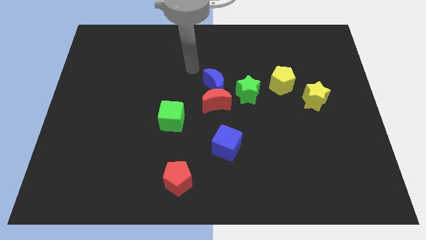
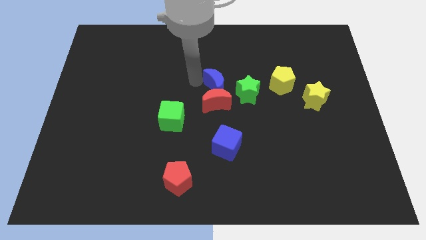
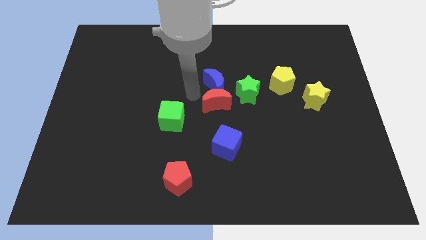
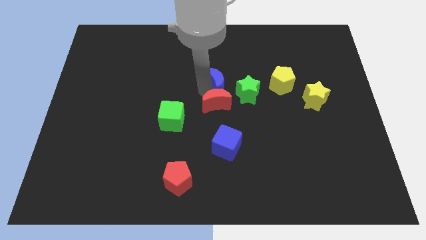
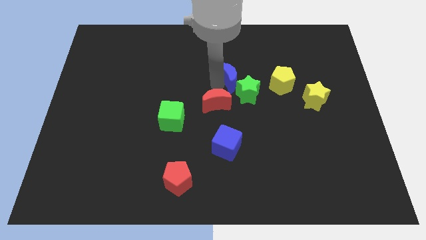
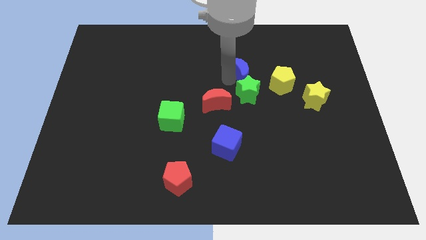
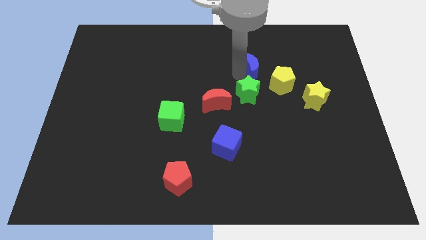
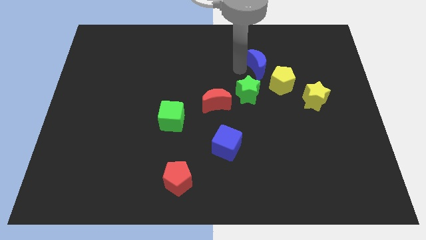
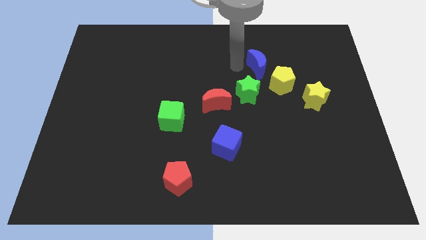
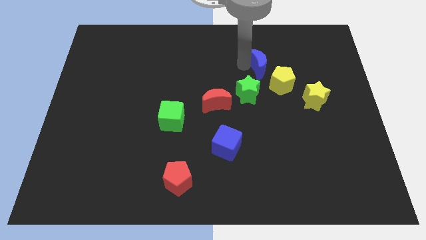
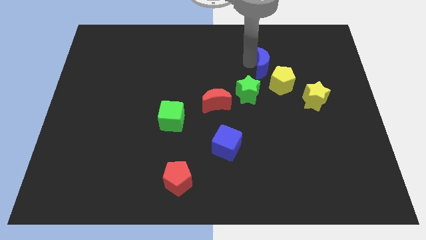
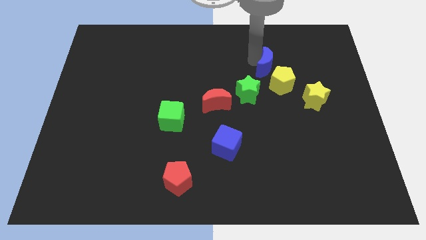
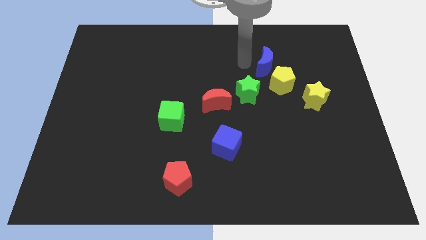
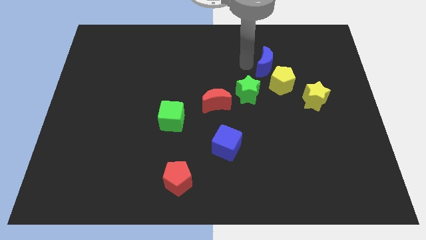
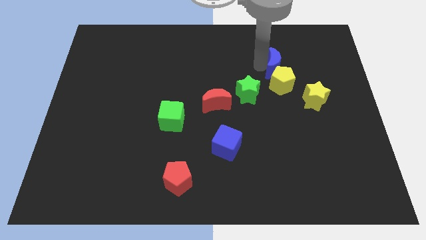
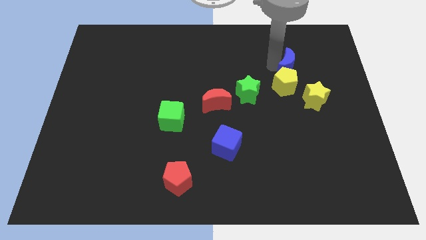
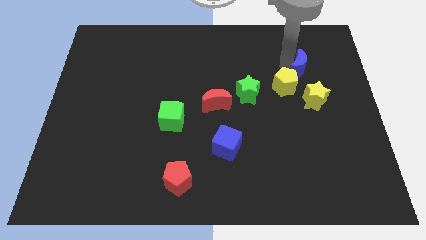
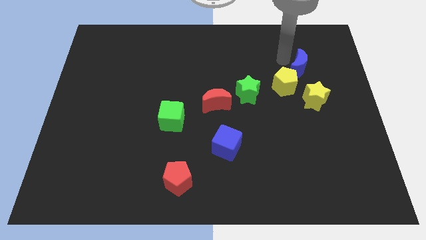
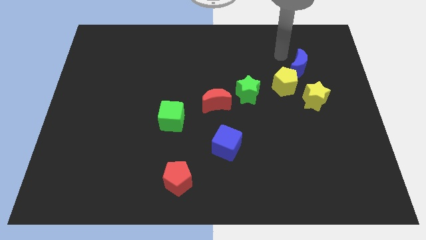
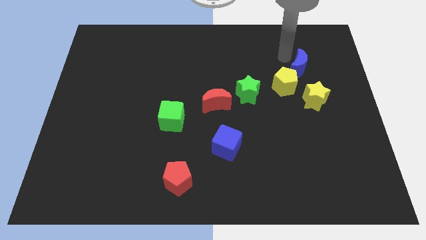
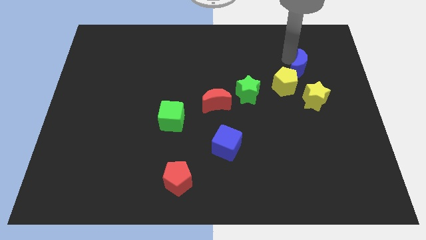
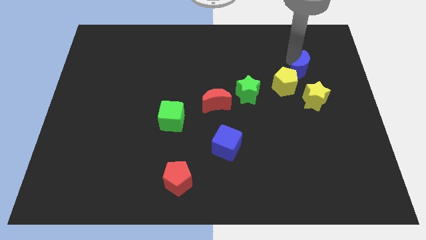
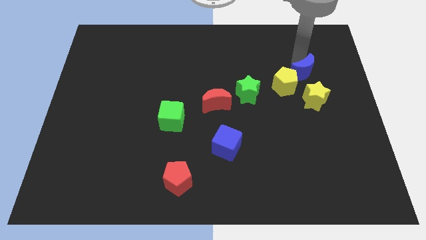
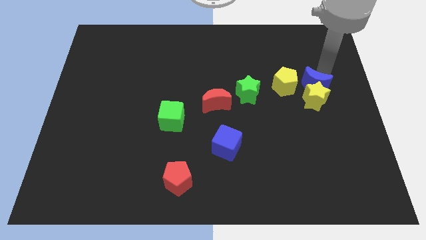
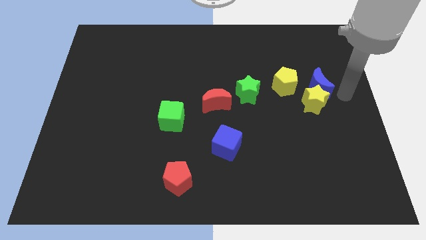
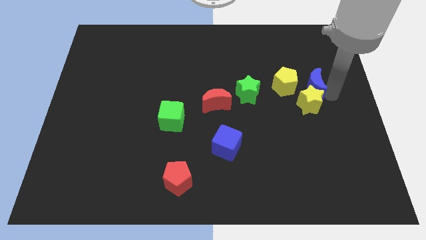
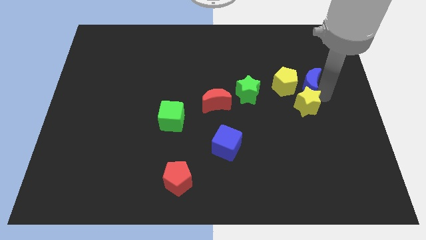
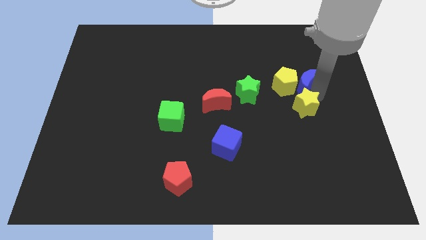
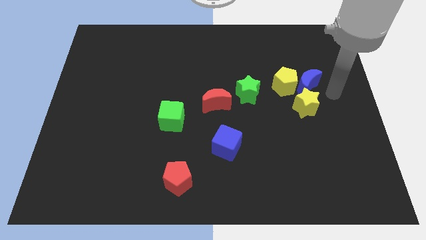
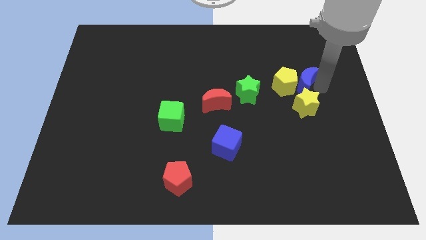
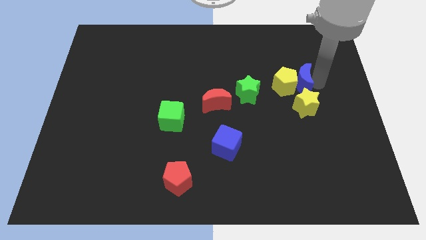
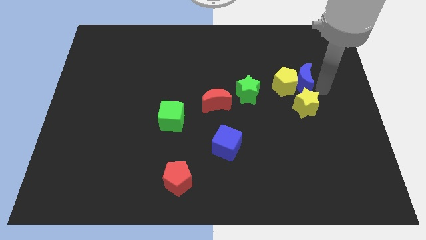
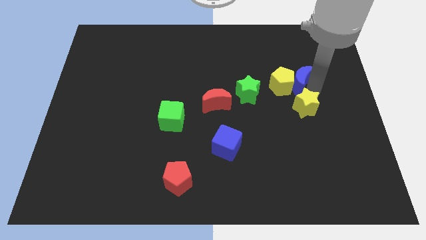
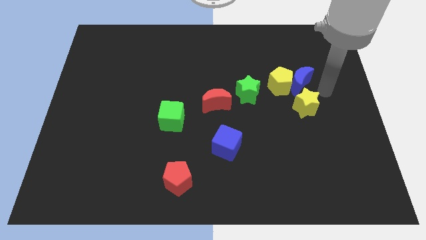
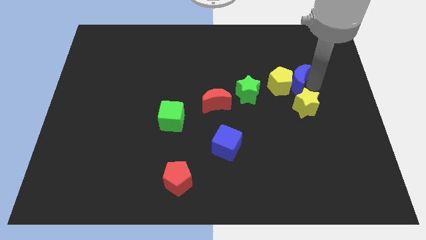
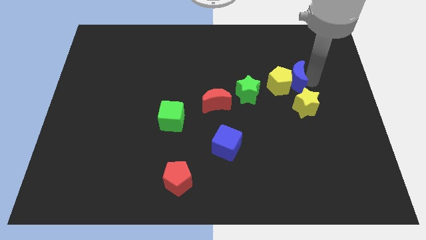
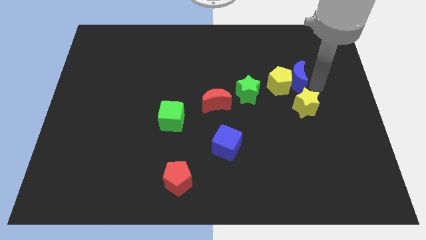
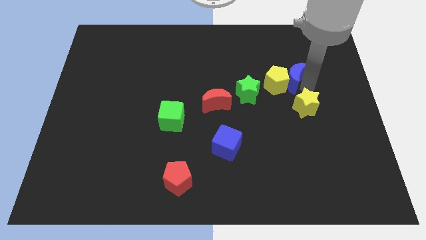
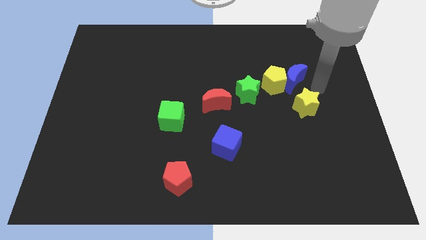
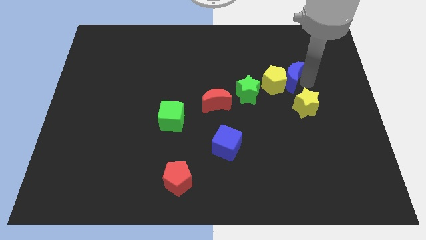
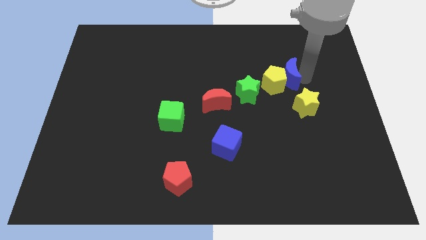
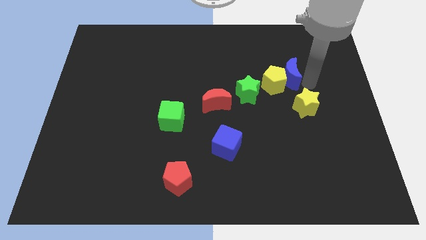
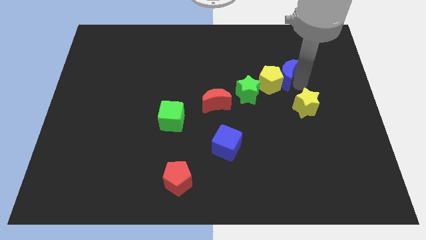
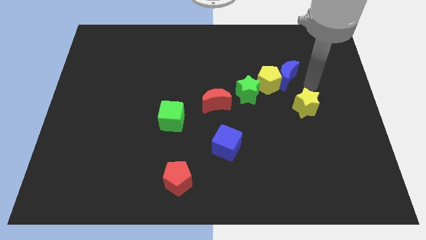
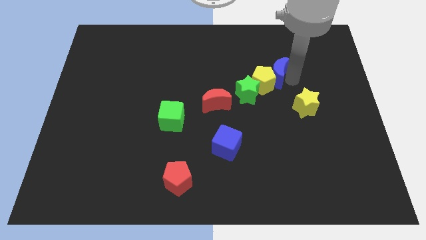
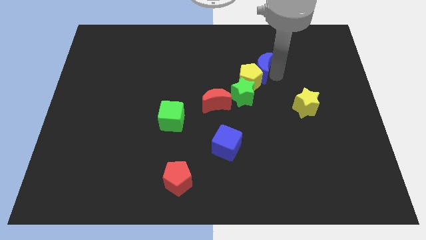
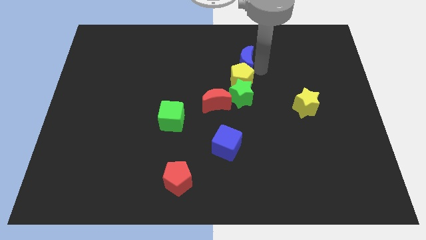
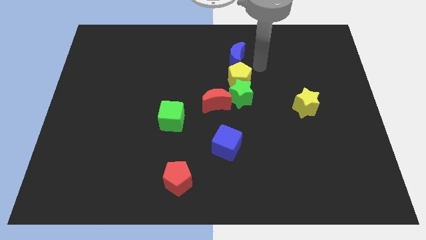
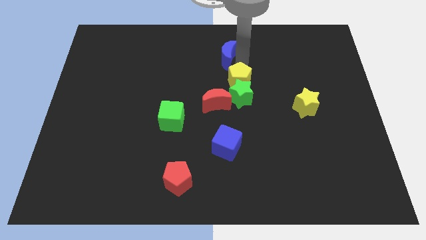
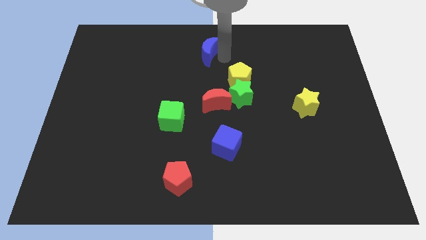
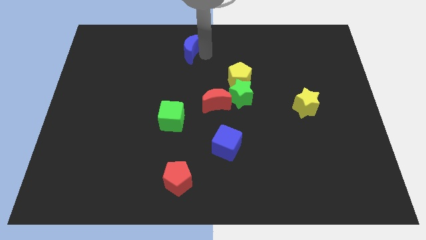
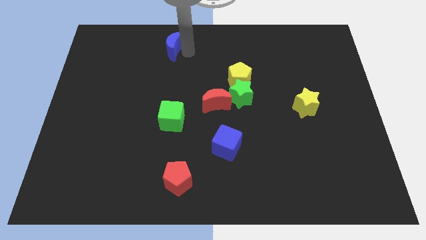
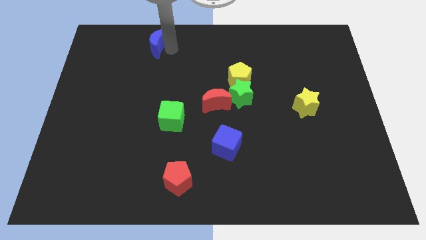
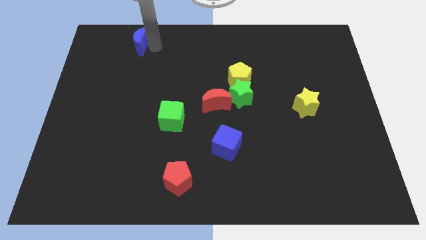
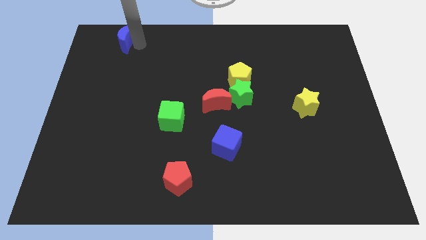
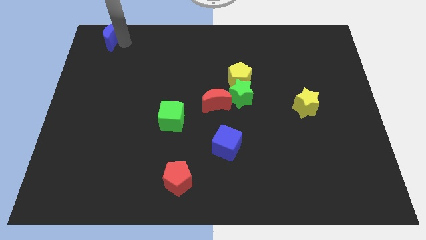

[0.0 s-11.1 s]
put the blue moon to the upper left corner

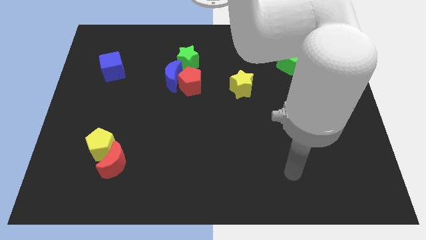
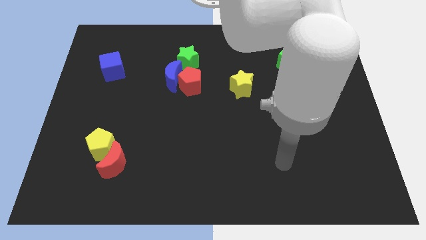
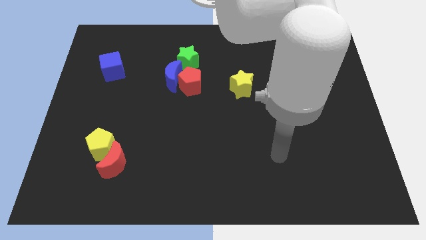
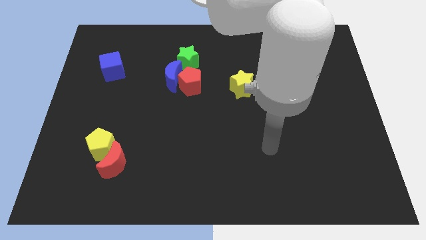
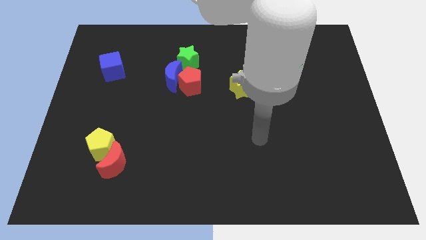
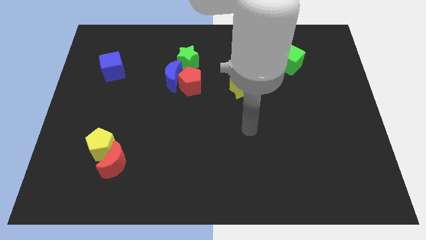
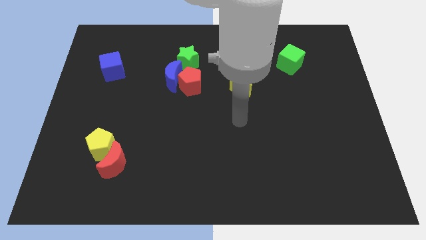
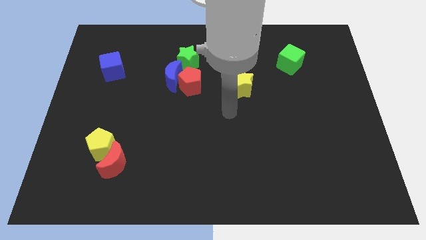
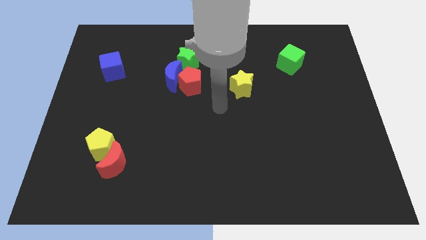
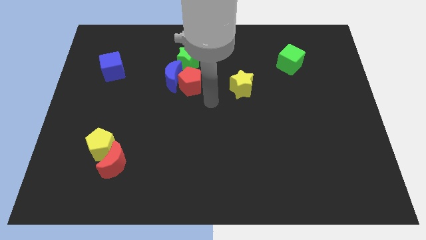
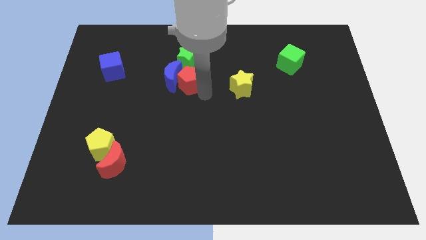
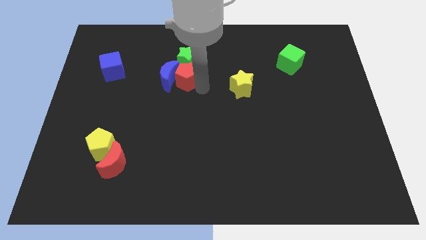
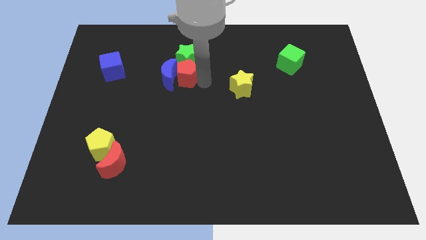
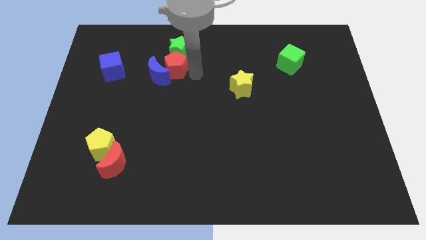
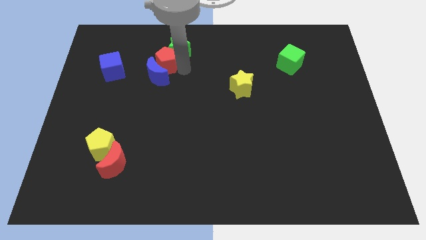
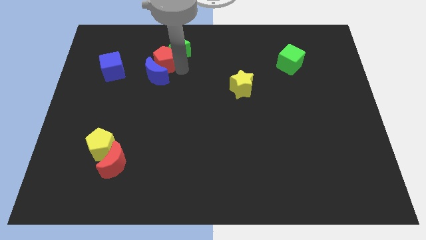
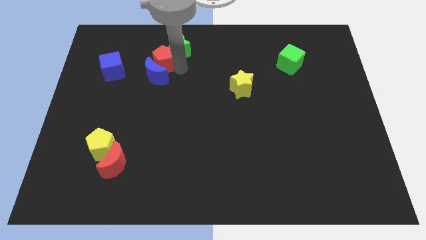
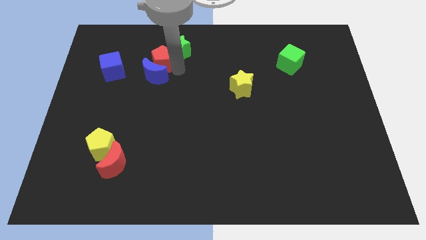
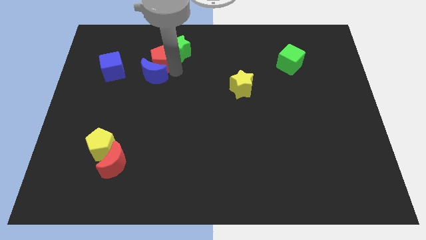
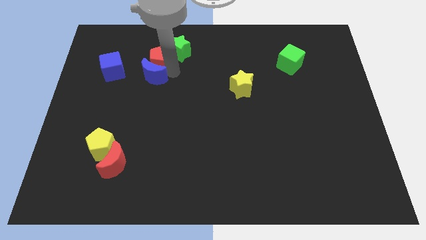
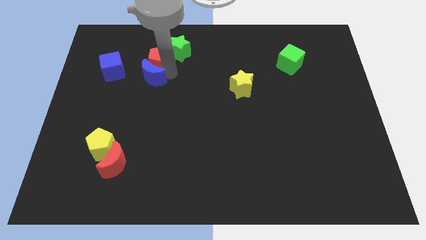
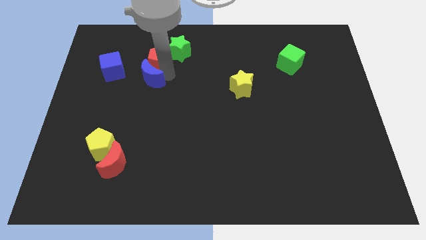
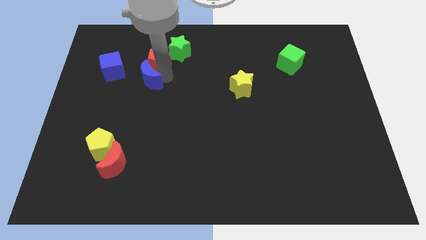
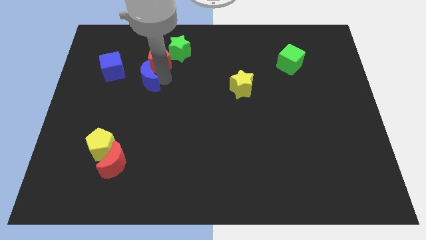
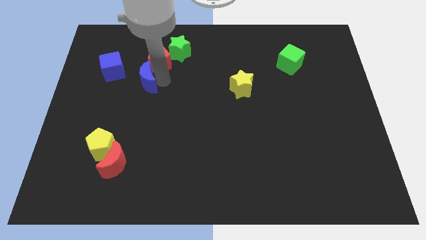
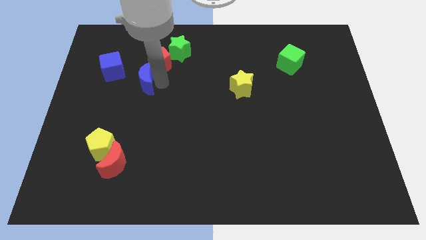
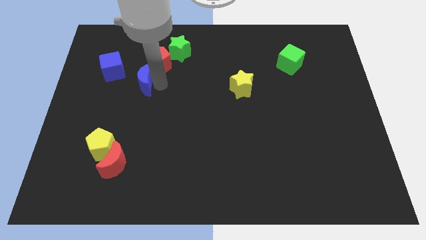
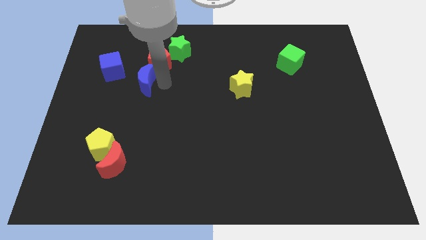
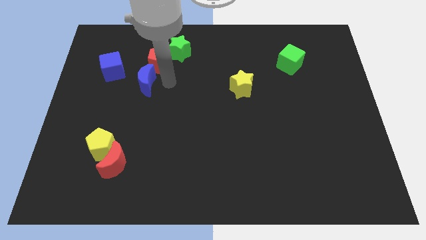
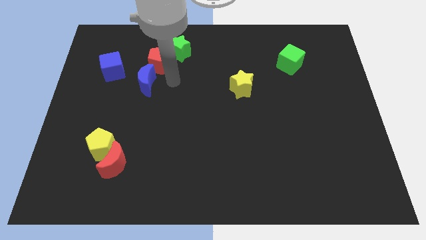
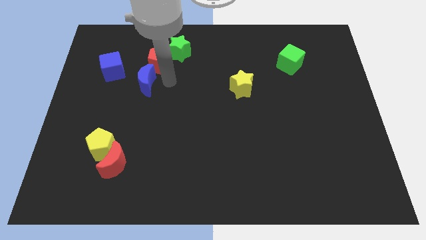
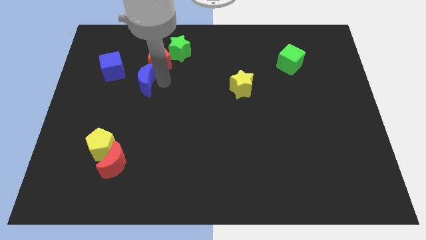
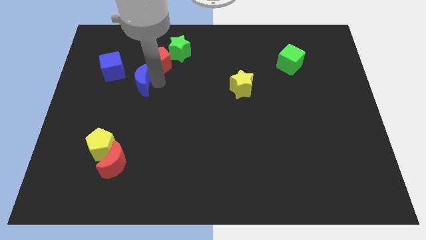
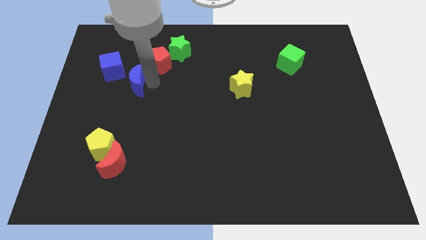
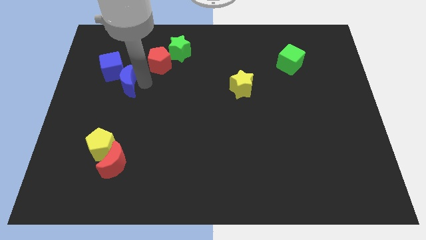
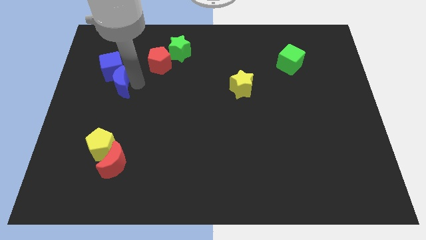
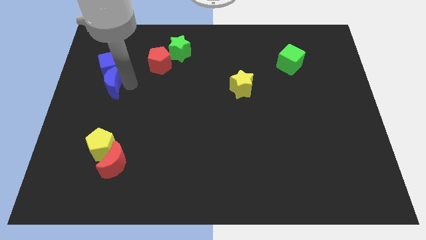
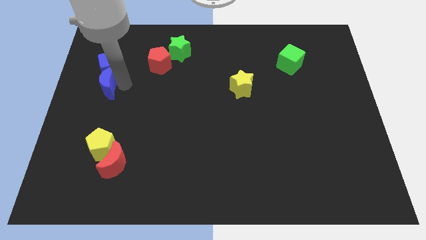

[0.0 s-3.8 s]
move the blue moon to the left side
